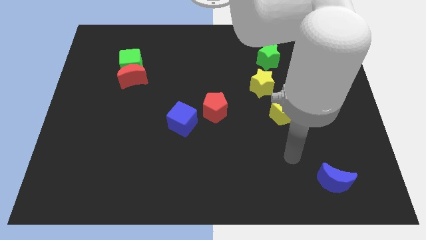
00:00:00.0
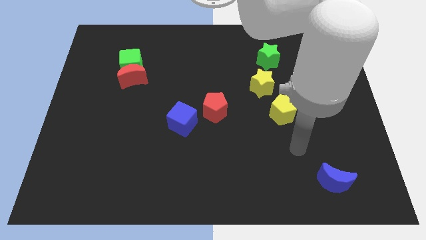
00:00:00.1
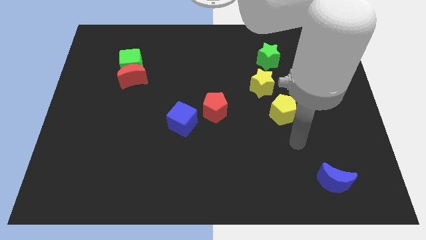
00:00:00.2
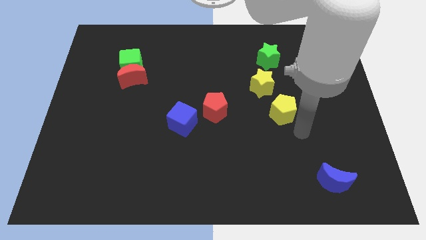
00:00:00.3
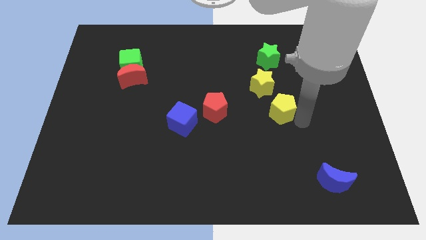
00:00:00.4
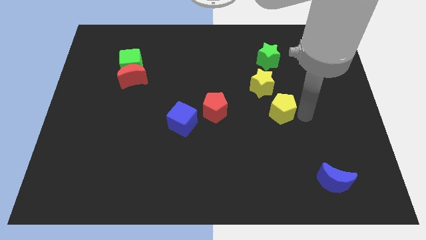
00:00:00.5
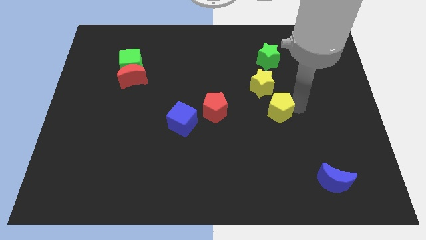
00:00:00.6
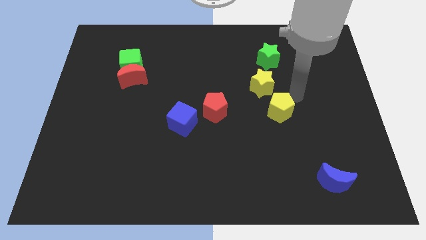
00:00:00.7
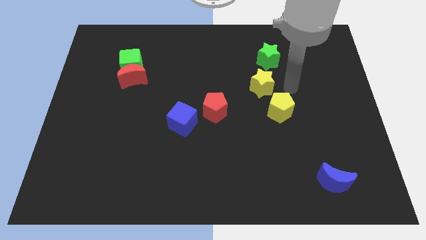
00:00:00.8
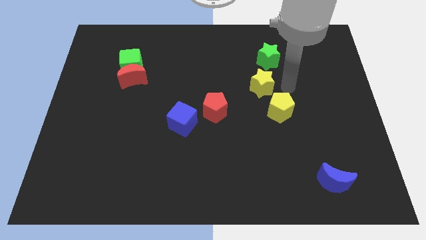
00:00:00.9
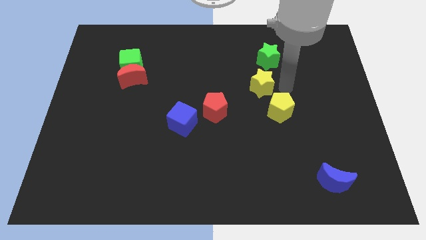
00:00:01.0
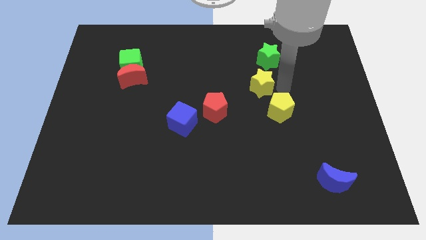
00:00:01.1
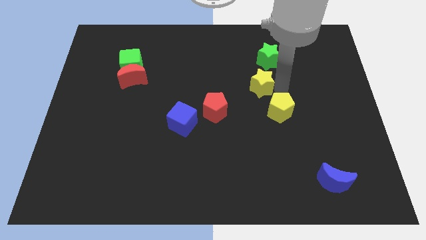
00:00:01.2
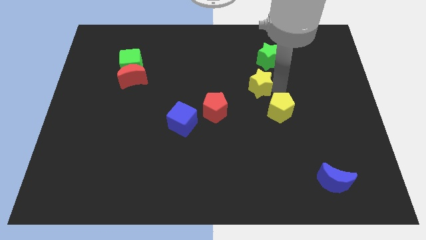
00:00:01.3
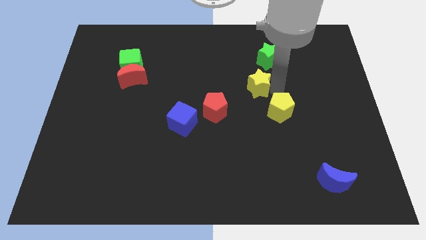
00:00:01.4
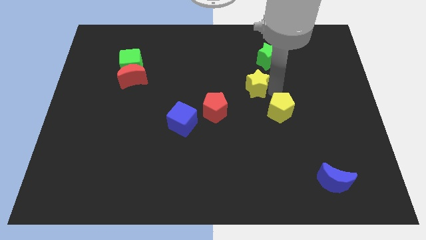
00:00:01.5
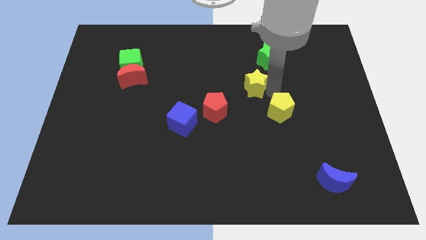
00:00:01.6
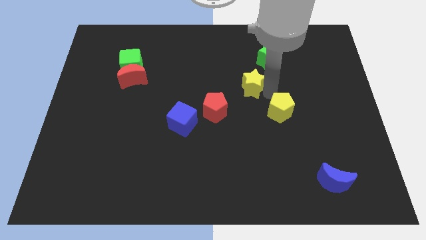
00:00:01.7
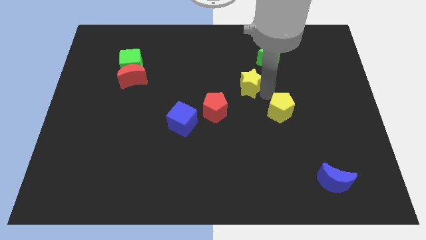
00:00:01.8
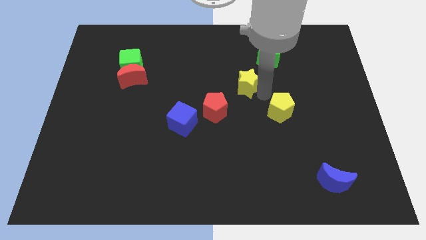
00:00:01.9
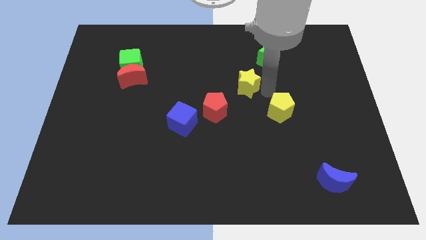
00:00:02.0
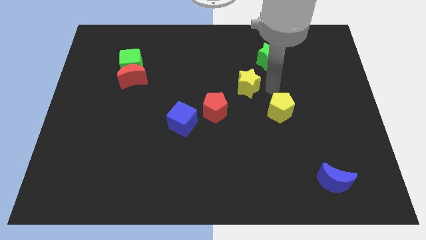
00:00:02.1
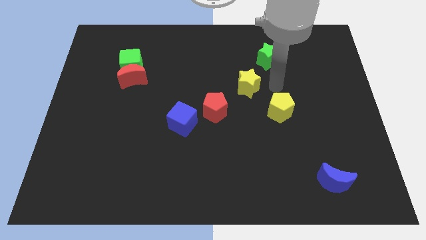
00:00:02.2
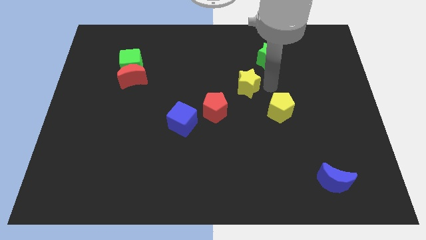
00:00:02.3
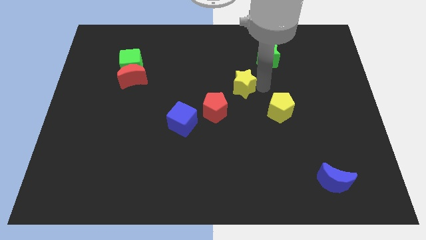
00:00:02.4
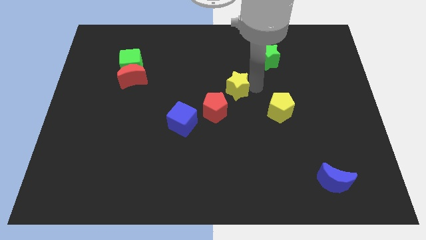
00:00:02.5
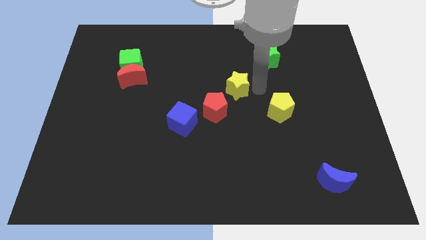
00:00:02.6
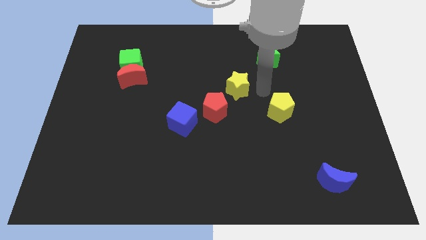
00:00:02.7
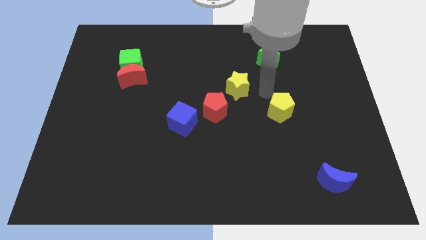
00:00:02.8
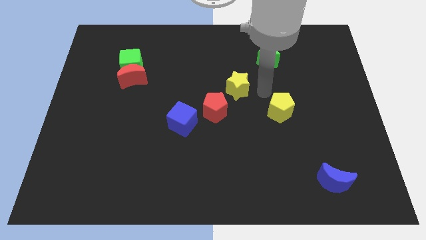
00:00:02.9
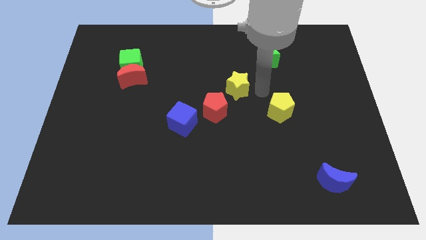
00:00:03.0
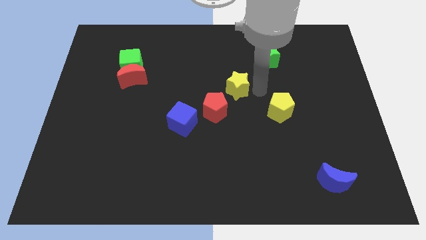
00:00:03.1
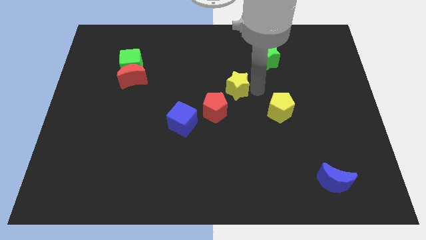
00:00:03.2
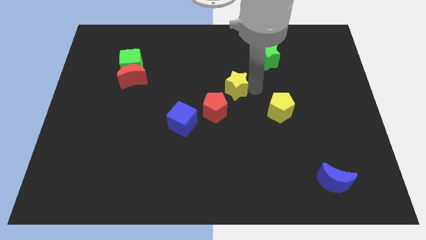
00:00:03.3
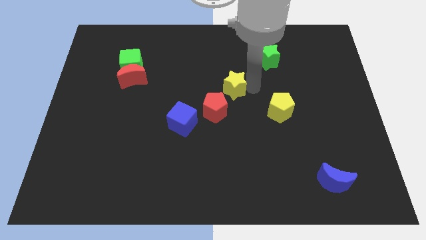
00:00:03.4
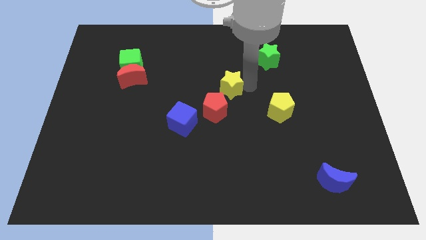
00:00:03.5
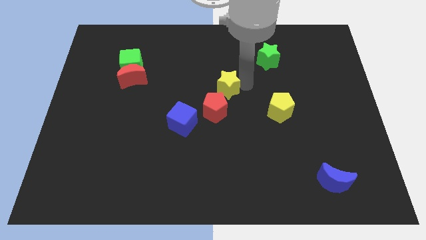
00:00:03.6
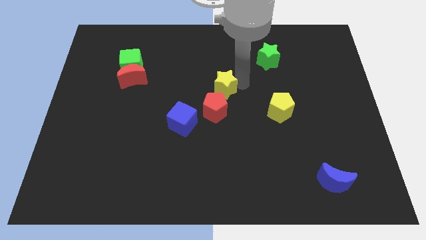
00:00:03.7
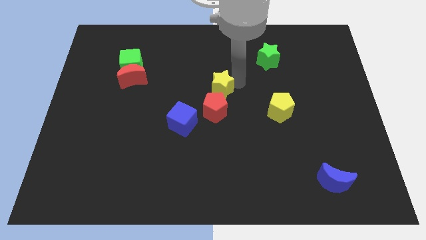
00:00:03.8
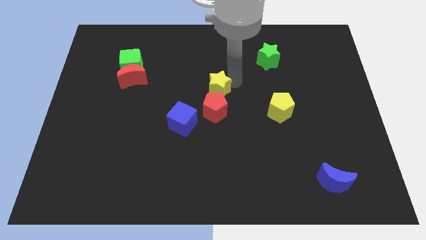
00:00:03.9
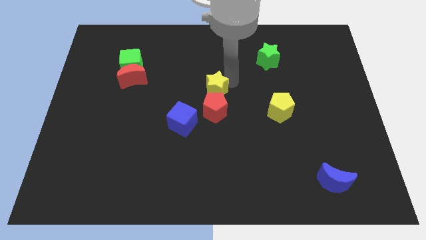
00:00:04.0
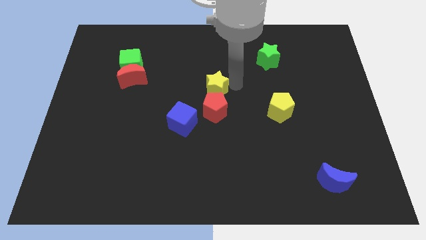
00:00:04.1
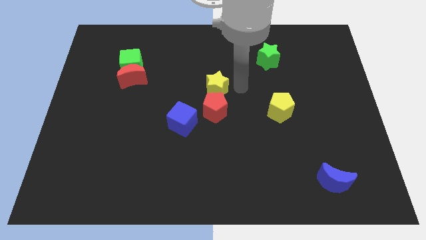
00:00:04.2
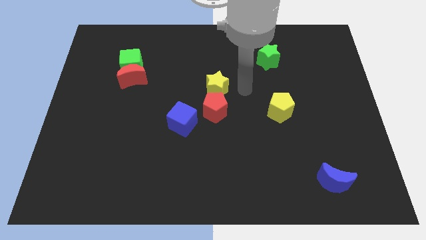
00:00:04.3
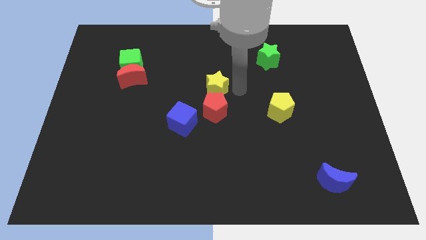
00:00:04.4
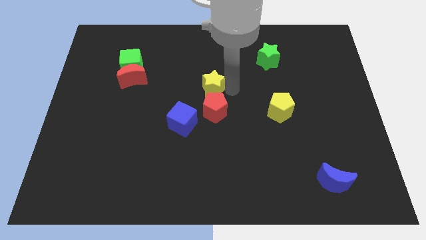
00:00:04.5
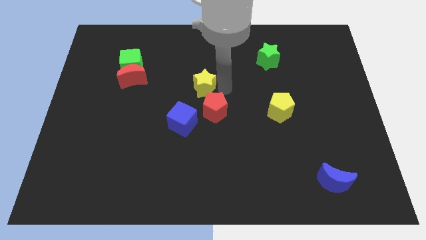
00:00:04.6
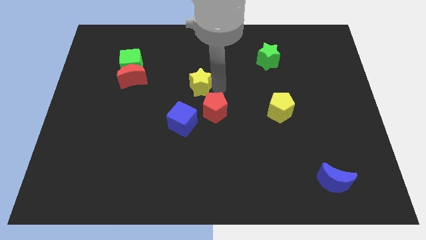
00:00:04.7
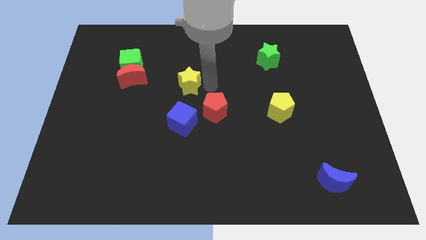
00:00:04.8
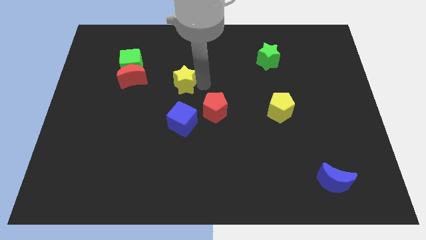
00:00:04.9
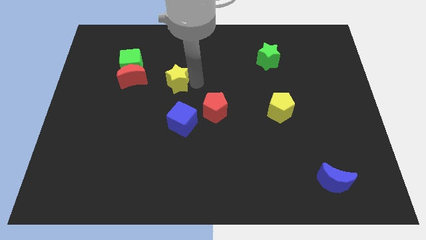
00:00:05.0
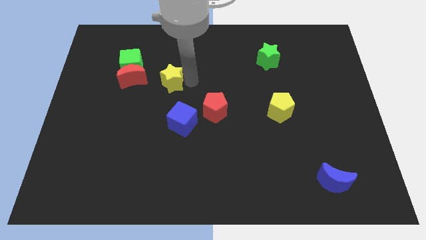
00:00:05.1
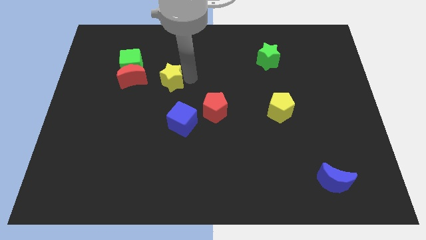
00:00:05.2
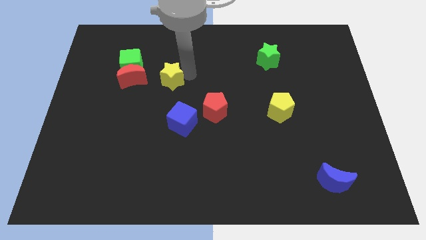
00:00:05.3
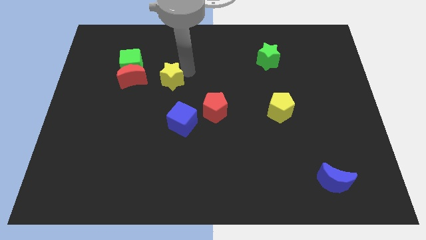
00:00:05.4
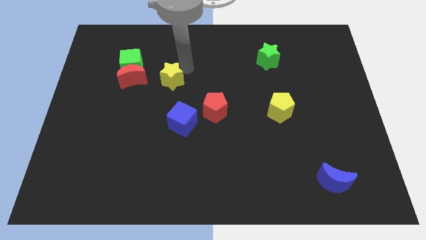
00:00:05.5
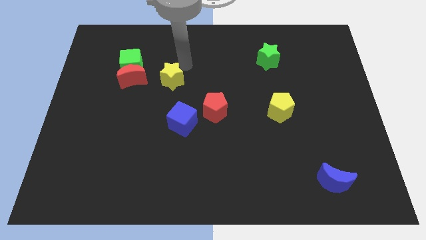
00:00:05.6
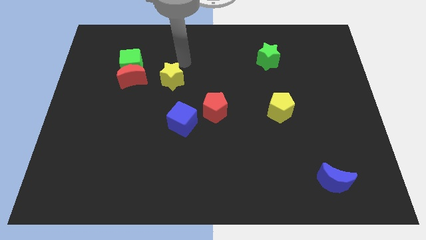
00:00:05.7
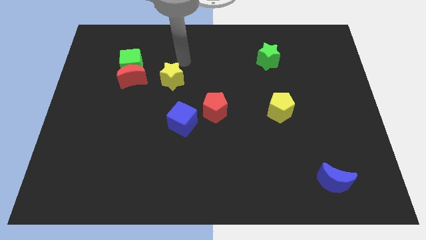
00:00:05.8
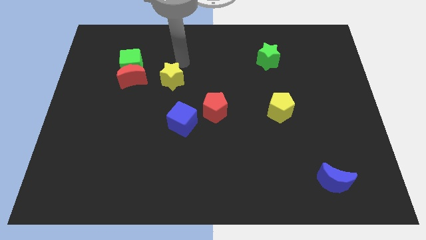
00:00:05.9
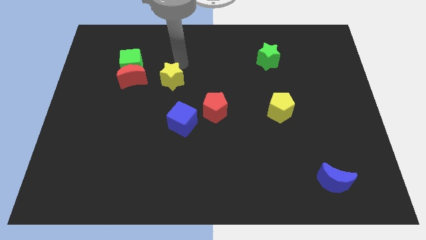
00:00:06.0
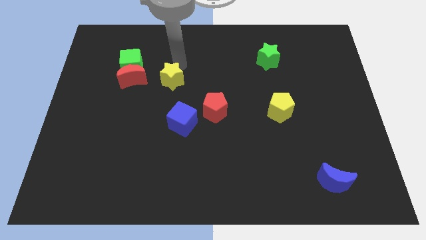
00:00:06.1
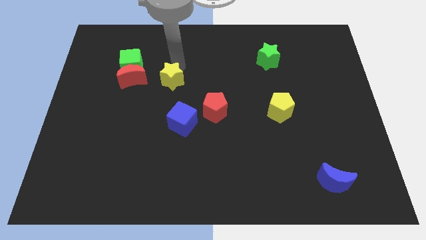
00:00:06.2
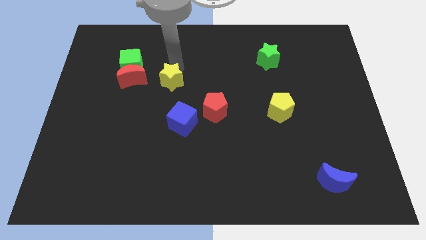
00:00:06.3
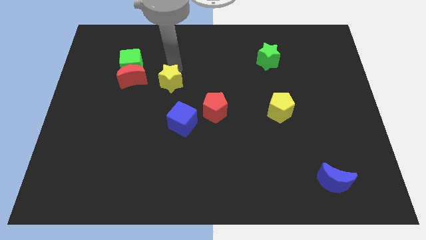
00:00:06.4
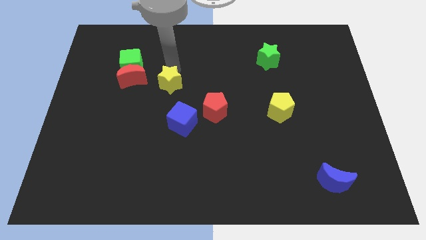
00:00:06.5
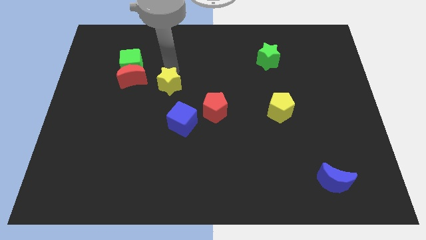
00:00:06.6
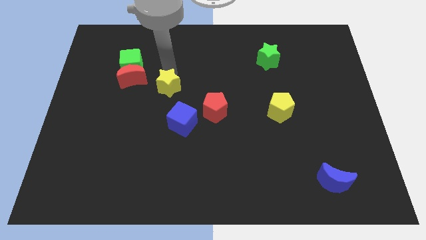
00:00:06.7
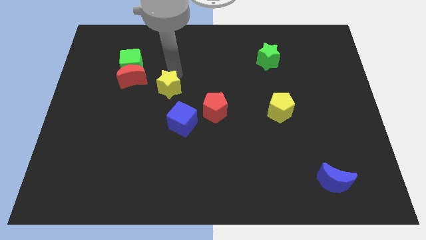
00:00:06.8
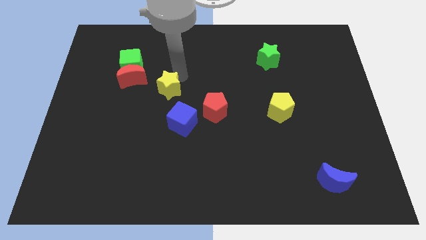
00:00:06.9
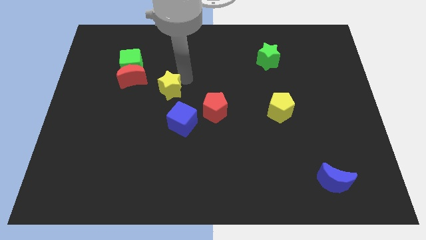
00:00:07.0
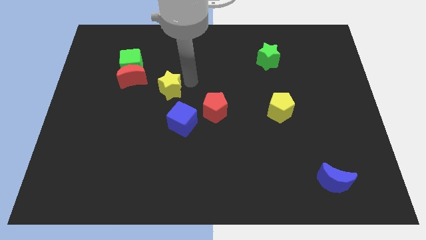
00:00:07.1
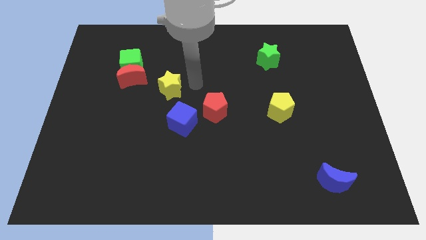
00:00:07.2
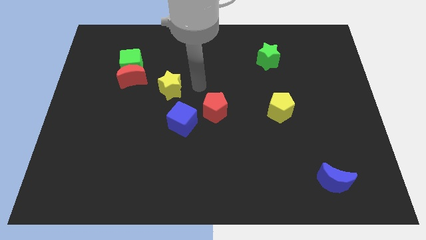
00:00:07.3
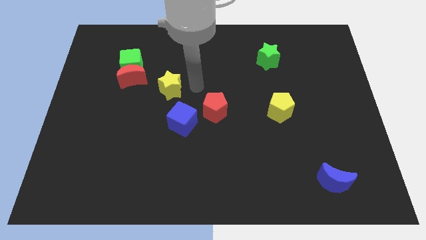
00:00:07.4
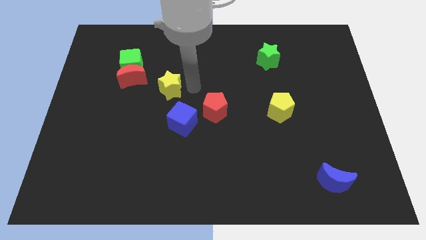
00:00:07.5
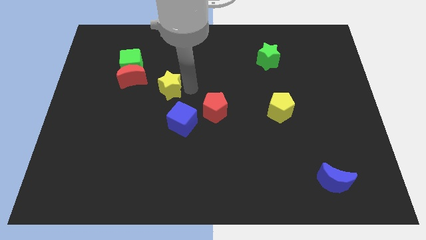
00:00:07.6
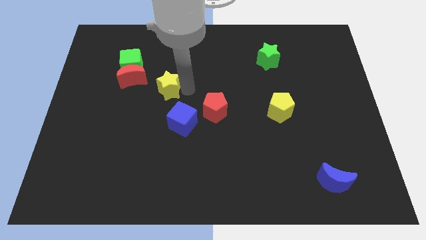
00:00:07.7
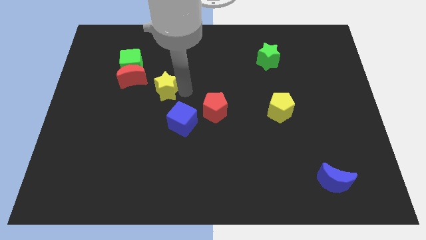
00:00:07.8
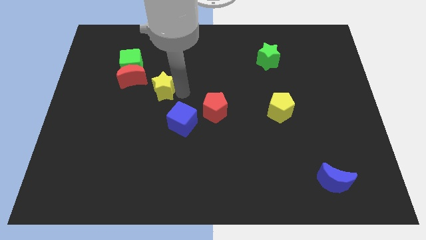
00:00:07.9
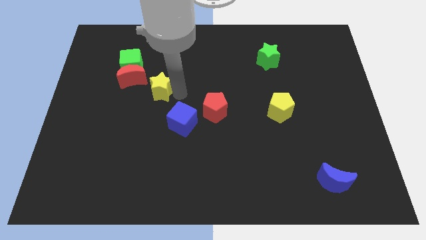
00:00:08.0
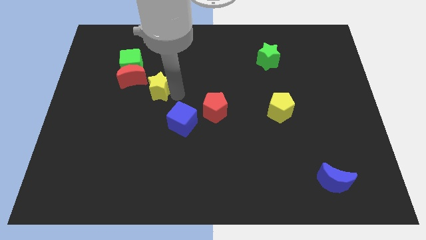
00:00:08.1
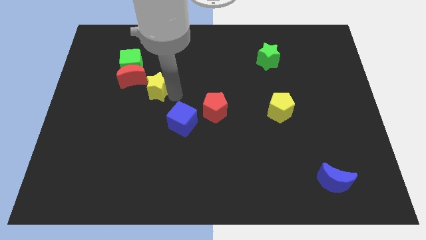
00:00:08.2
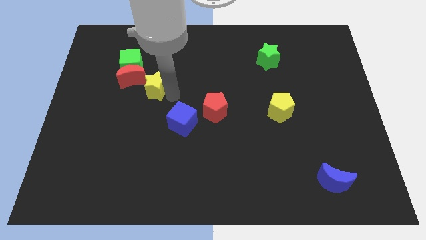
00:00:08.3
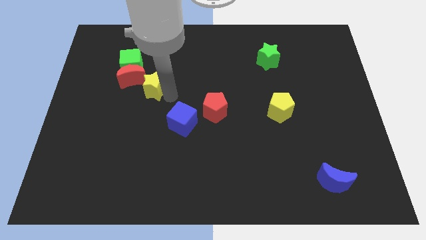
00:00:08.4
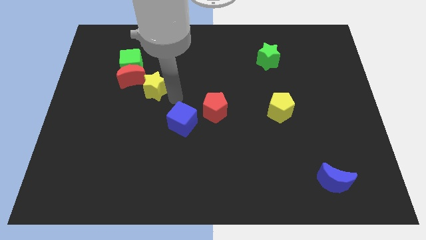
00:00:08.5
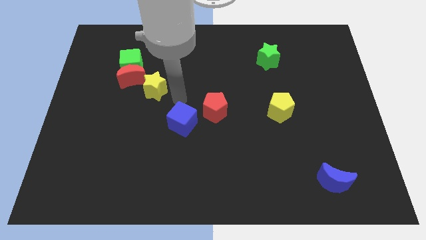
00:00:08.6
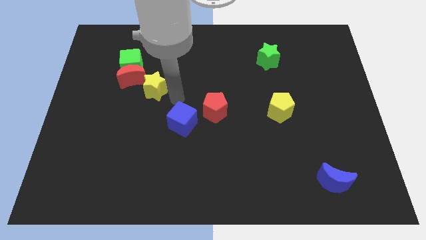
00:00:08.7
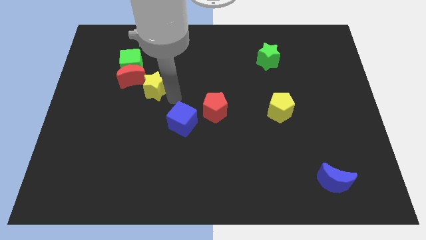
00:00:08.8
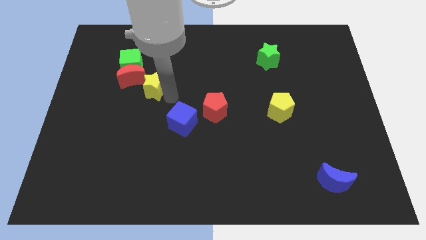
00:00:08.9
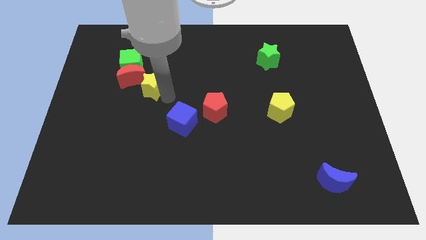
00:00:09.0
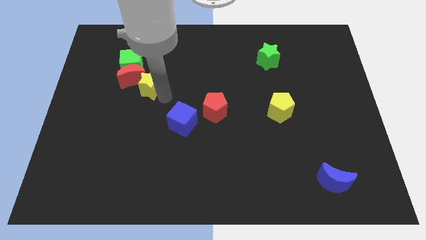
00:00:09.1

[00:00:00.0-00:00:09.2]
put the yellow star to the red moon
